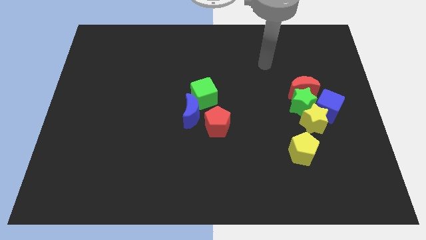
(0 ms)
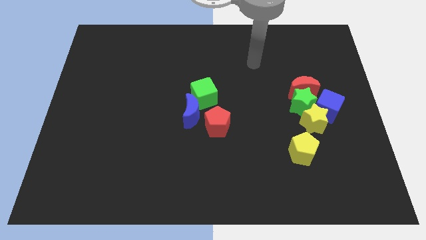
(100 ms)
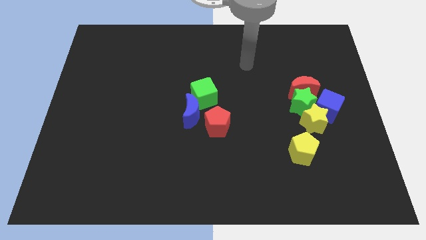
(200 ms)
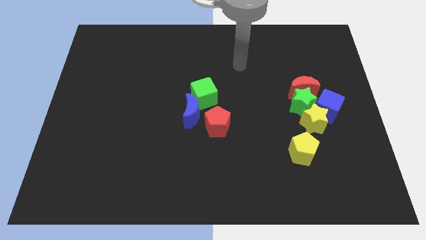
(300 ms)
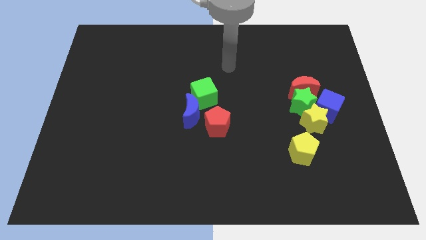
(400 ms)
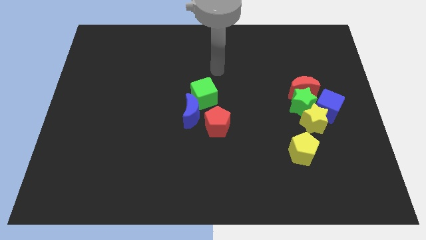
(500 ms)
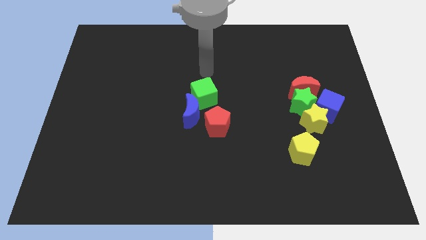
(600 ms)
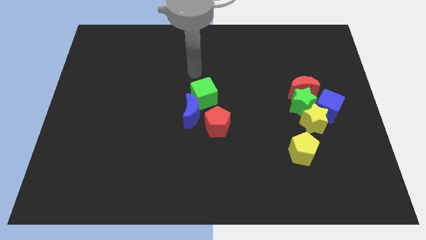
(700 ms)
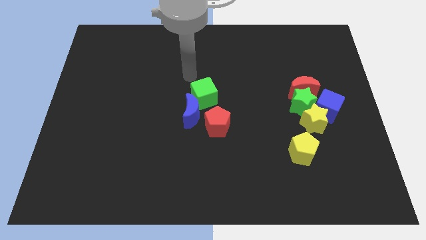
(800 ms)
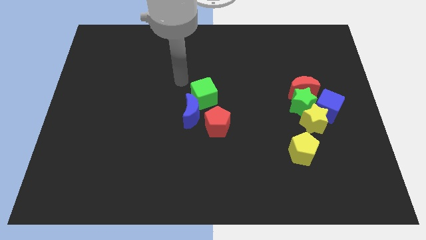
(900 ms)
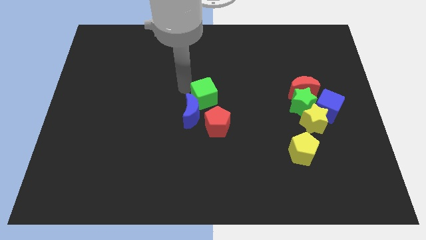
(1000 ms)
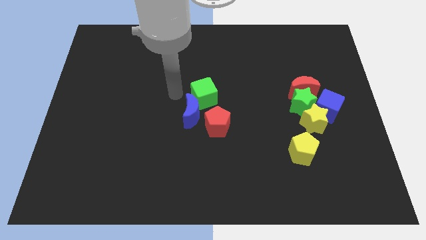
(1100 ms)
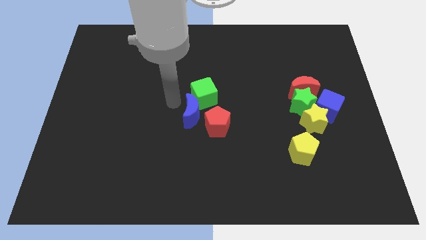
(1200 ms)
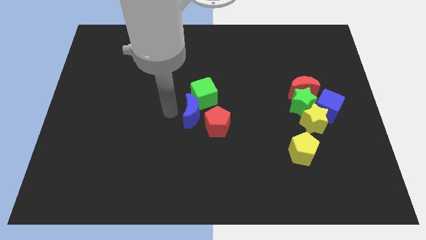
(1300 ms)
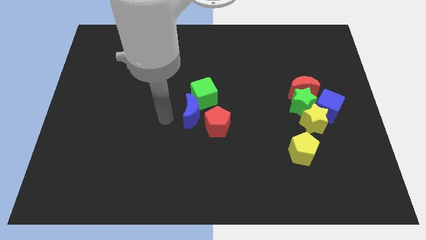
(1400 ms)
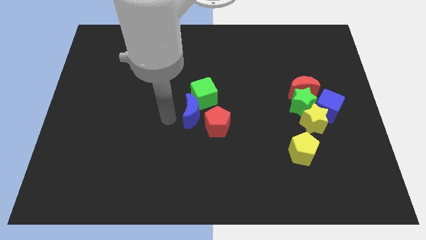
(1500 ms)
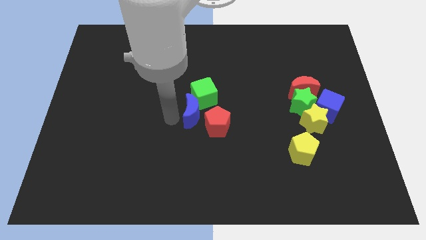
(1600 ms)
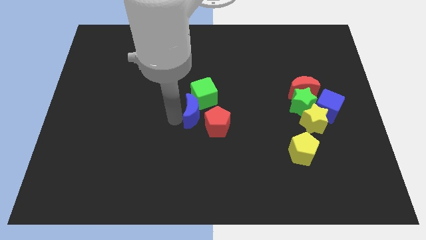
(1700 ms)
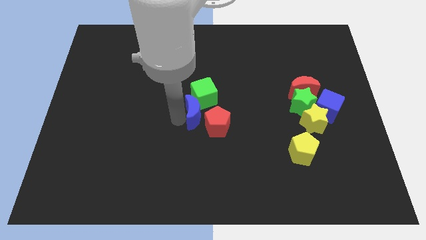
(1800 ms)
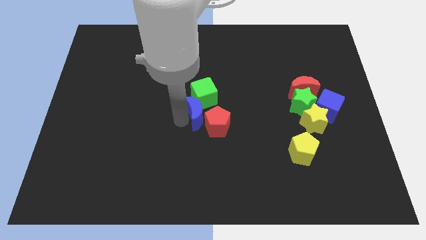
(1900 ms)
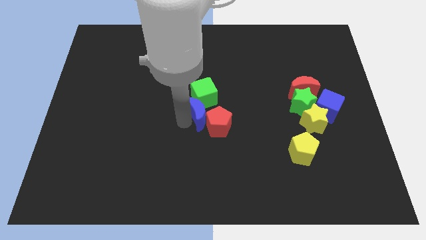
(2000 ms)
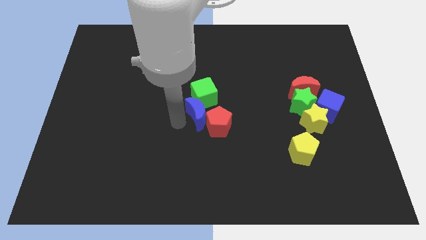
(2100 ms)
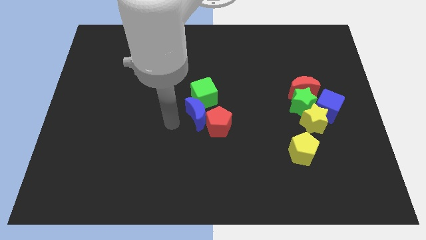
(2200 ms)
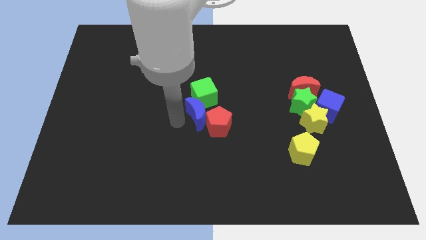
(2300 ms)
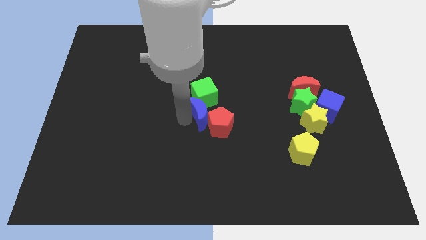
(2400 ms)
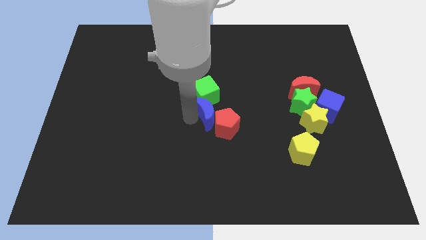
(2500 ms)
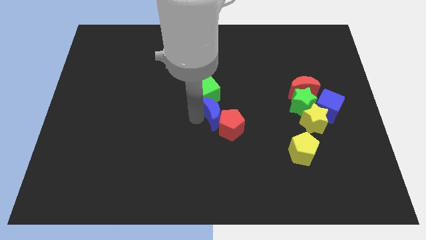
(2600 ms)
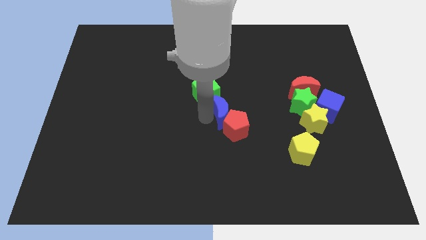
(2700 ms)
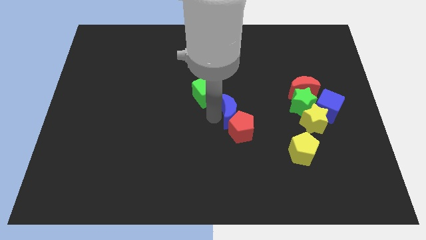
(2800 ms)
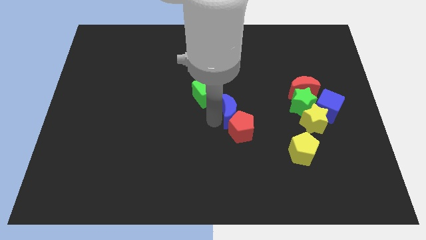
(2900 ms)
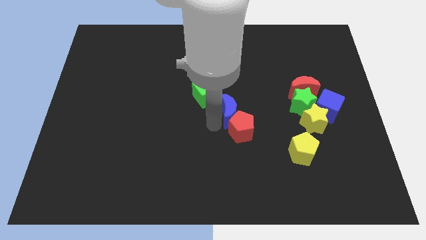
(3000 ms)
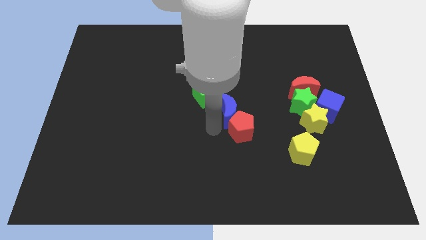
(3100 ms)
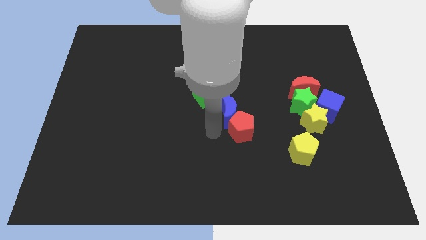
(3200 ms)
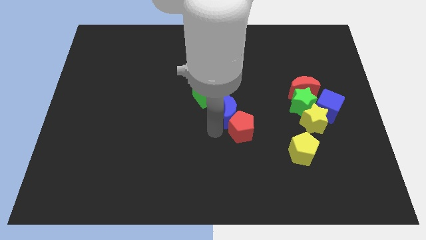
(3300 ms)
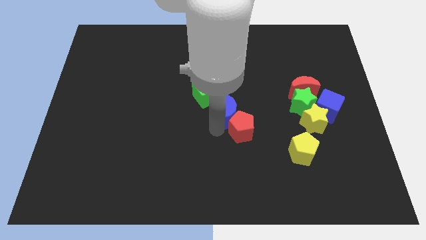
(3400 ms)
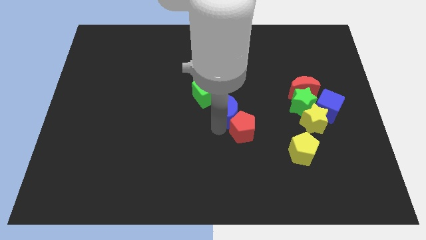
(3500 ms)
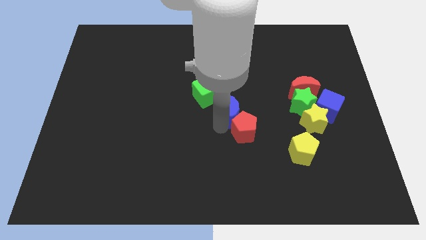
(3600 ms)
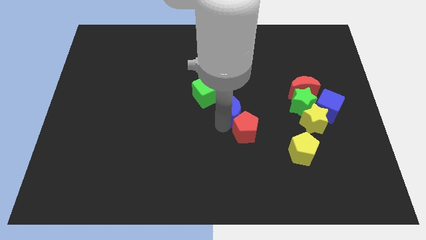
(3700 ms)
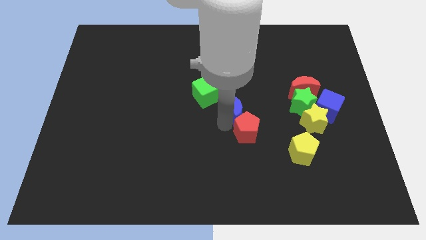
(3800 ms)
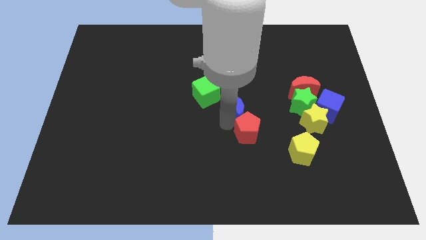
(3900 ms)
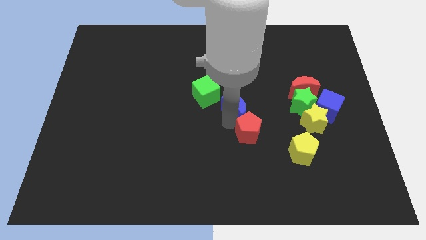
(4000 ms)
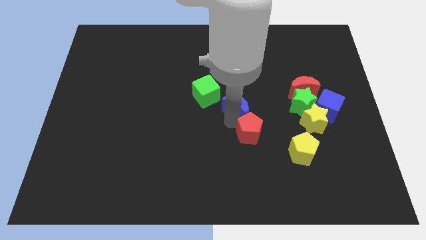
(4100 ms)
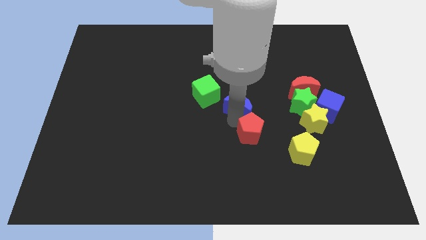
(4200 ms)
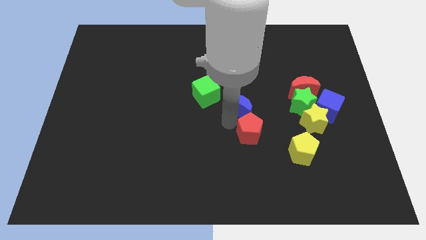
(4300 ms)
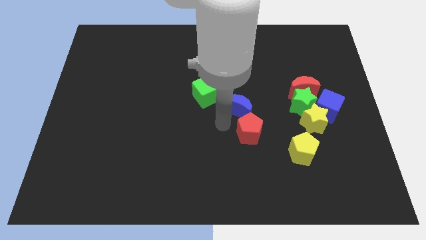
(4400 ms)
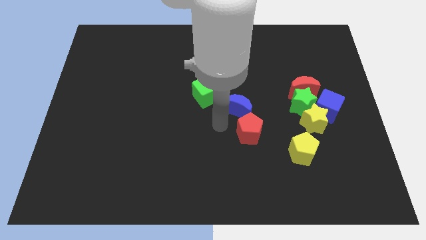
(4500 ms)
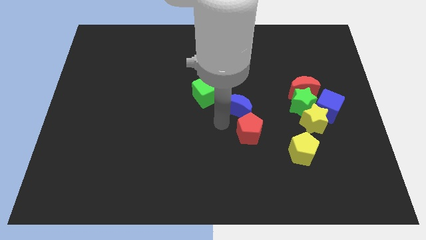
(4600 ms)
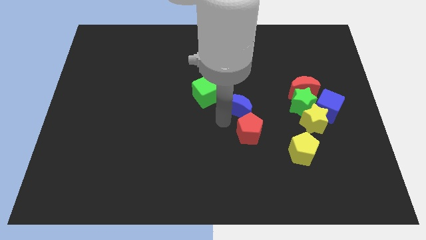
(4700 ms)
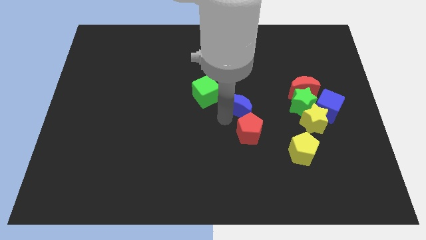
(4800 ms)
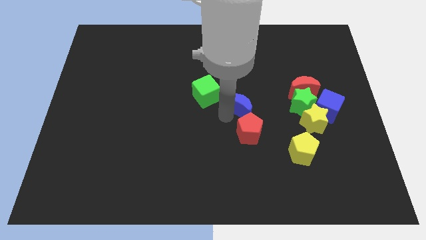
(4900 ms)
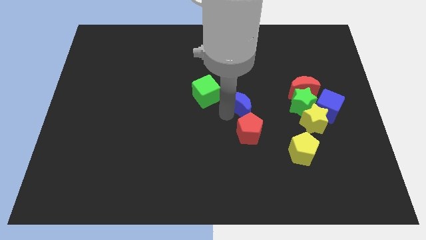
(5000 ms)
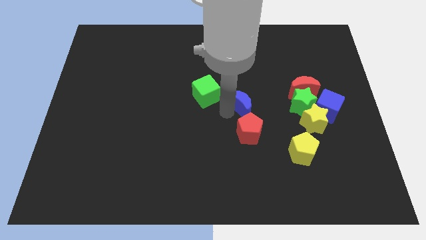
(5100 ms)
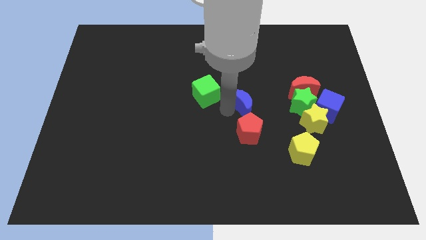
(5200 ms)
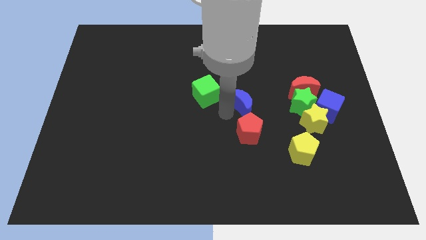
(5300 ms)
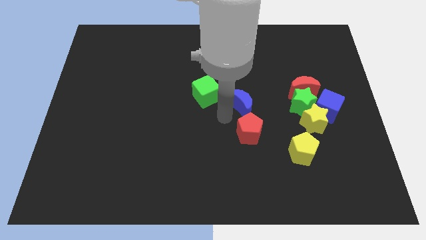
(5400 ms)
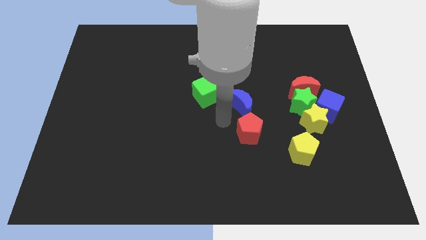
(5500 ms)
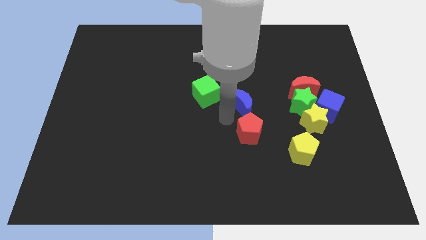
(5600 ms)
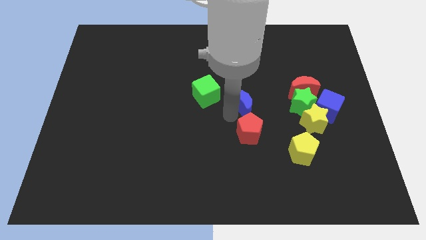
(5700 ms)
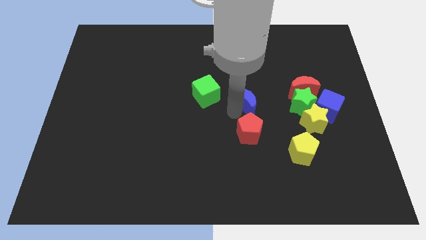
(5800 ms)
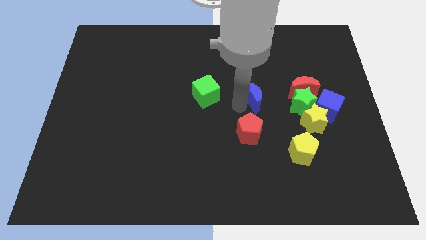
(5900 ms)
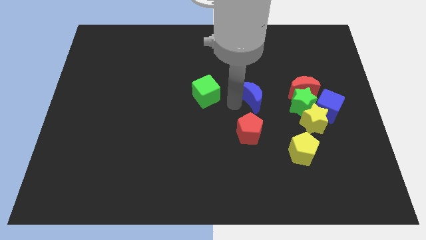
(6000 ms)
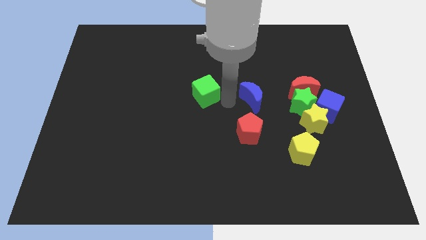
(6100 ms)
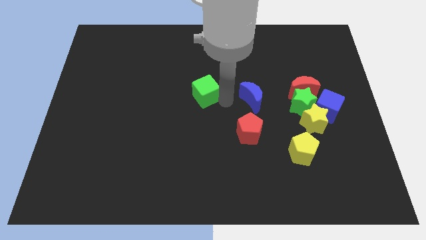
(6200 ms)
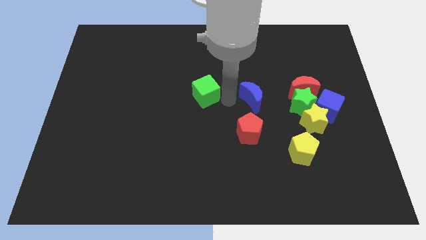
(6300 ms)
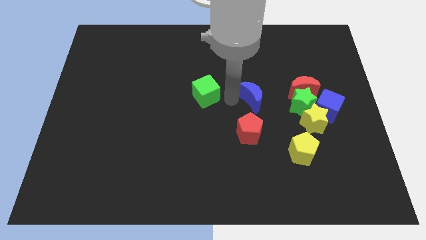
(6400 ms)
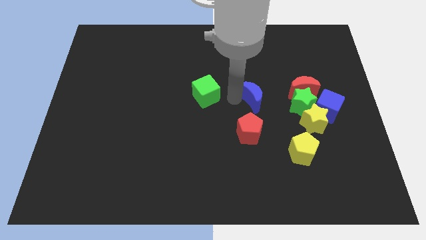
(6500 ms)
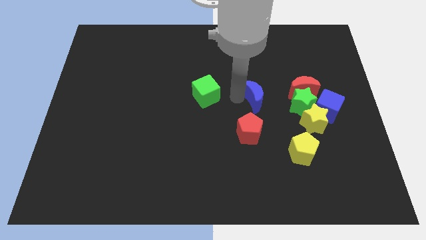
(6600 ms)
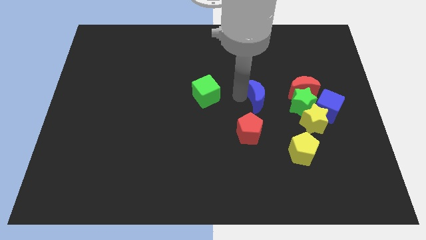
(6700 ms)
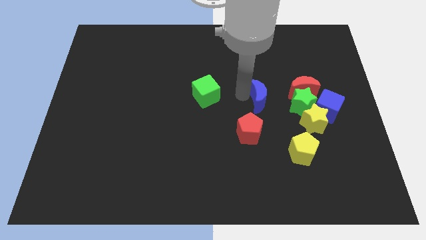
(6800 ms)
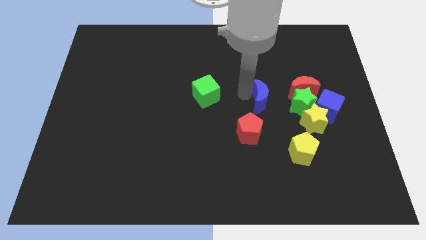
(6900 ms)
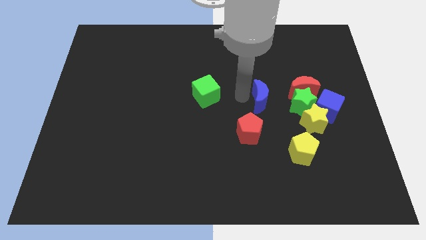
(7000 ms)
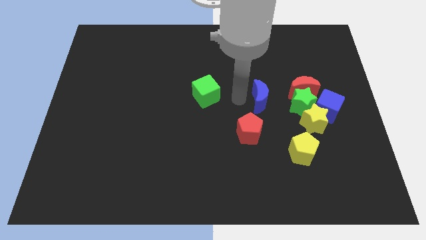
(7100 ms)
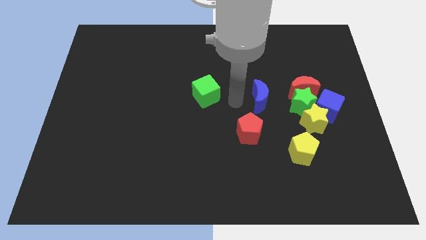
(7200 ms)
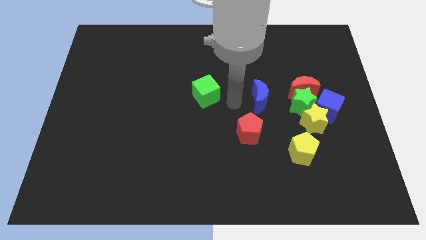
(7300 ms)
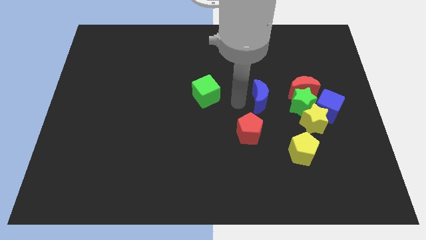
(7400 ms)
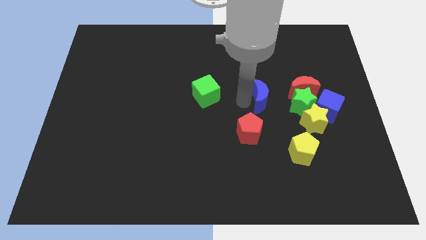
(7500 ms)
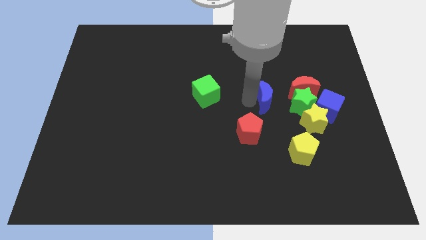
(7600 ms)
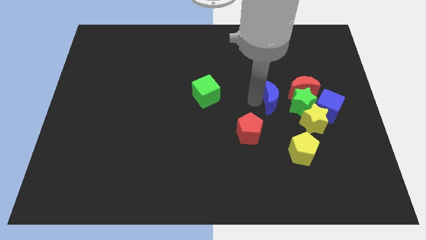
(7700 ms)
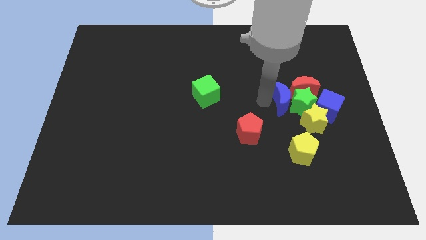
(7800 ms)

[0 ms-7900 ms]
put the blue moon close to the red moon
